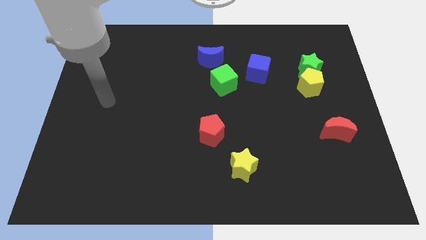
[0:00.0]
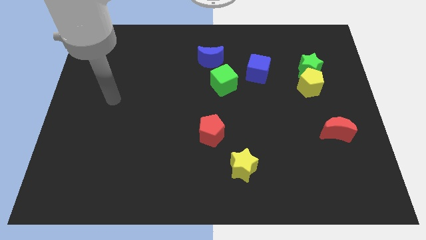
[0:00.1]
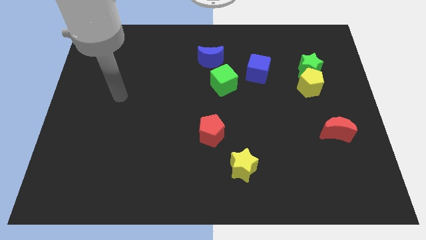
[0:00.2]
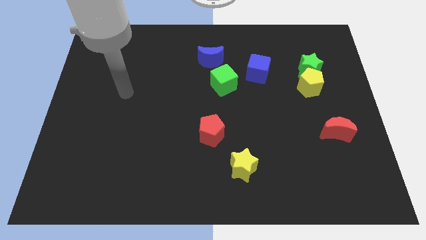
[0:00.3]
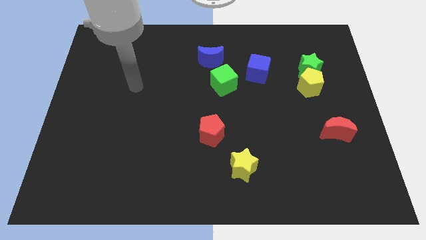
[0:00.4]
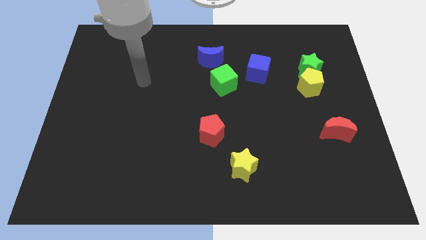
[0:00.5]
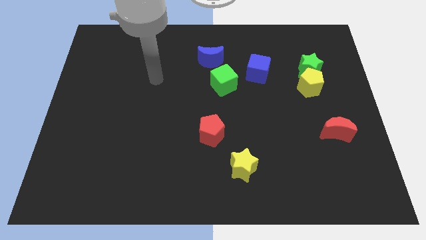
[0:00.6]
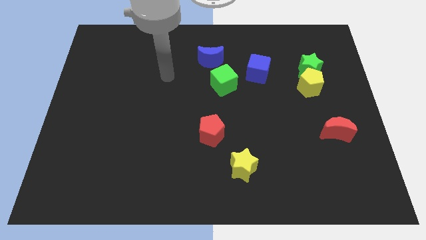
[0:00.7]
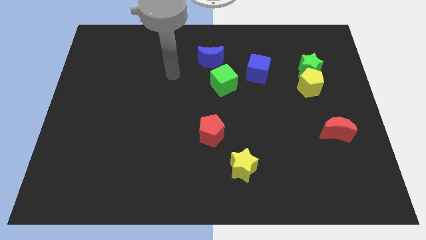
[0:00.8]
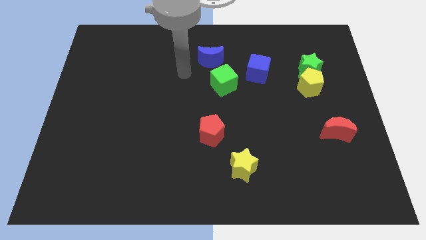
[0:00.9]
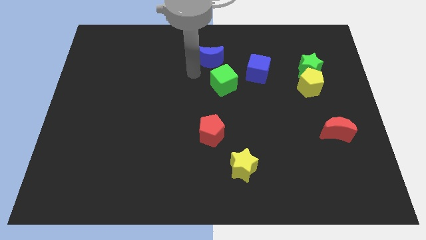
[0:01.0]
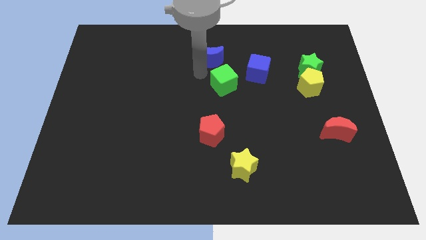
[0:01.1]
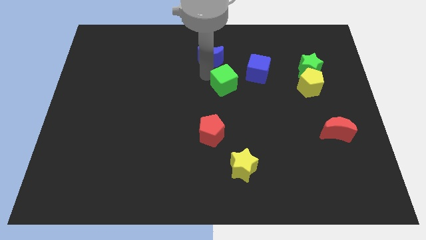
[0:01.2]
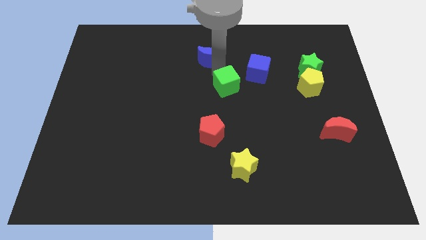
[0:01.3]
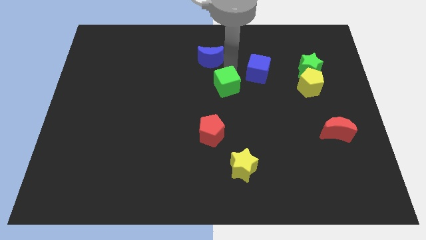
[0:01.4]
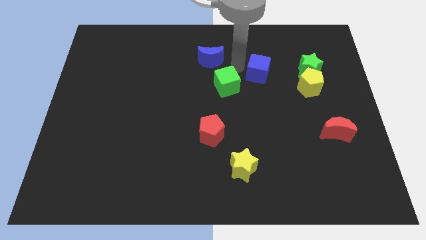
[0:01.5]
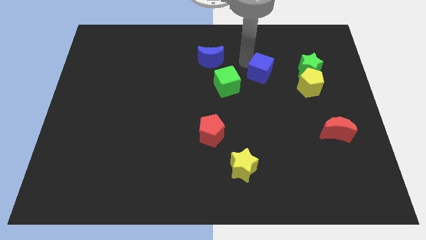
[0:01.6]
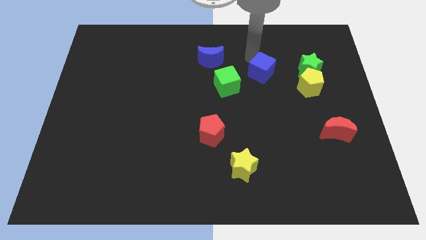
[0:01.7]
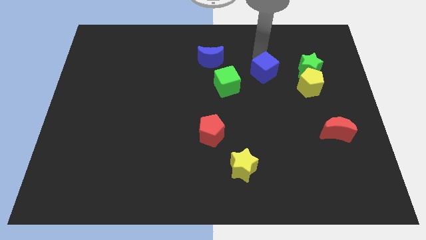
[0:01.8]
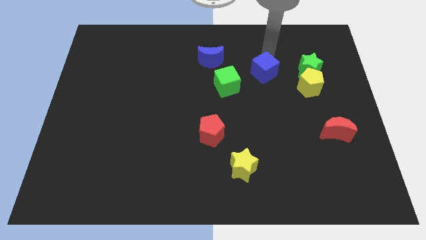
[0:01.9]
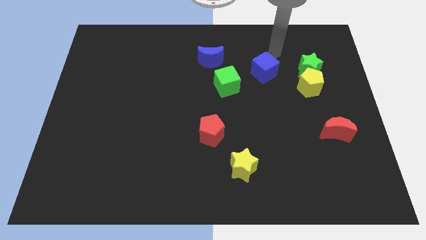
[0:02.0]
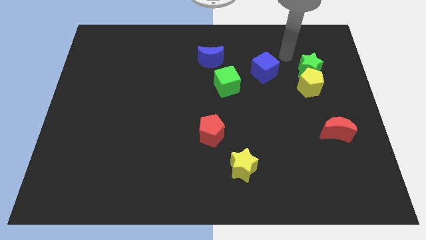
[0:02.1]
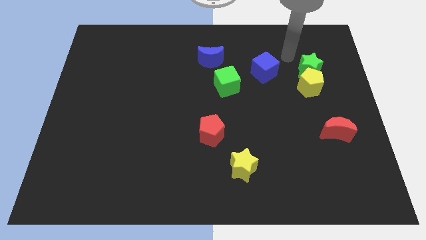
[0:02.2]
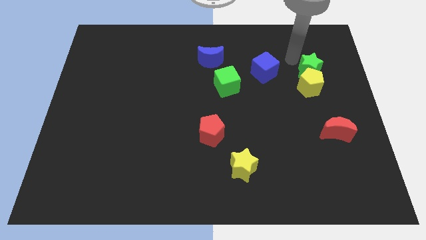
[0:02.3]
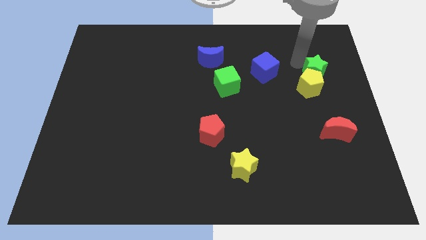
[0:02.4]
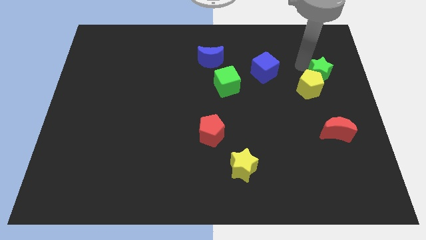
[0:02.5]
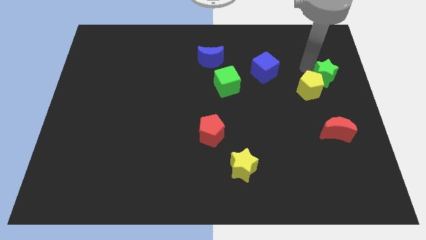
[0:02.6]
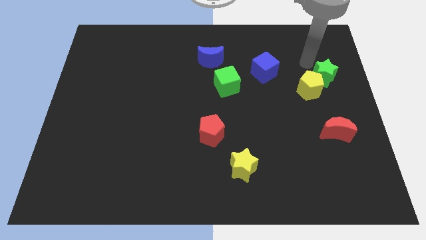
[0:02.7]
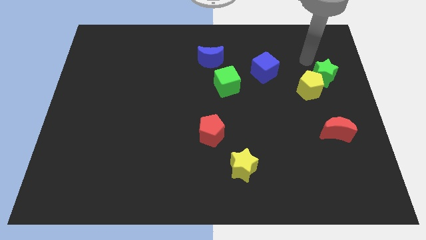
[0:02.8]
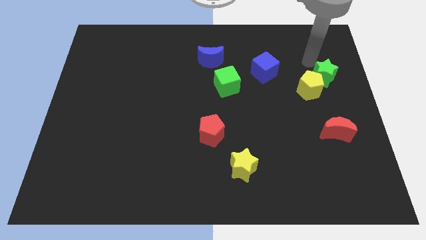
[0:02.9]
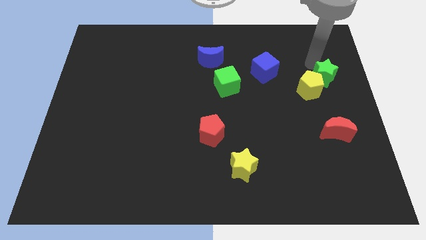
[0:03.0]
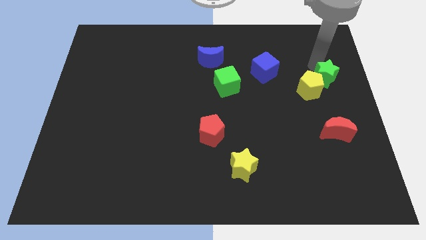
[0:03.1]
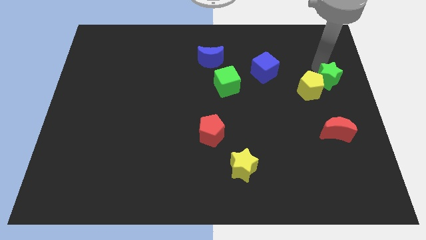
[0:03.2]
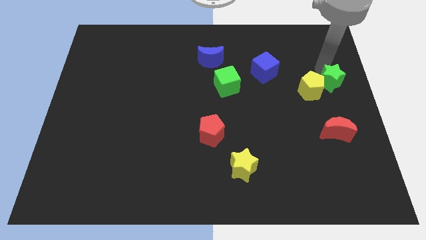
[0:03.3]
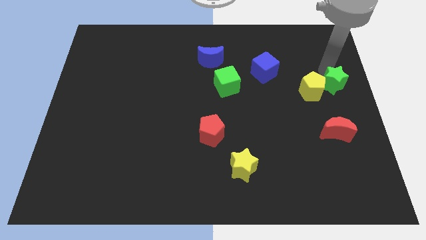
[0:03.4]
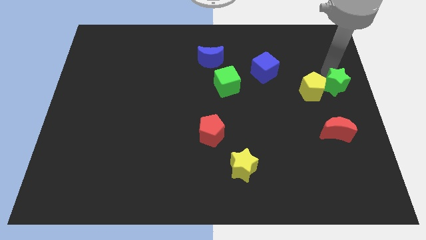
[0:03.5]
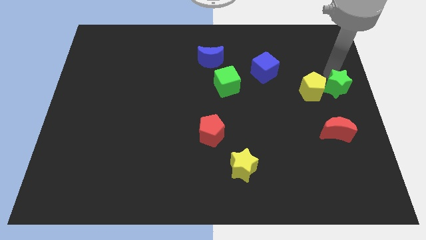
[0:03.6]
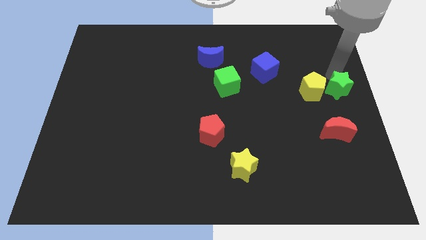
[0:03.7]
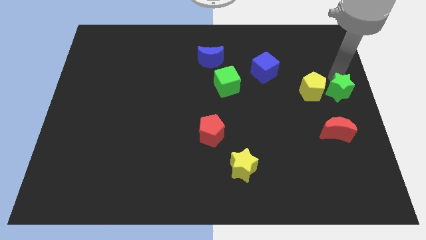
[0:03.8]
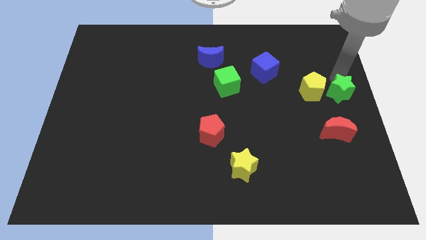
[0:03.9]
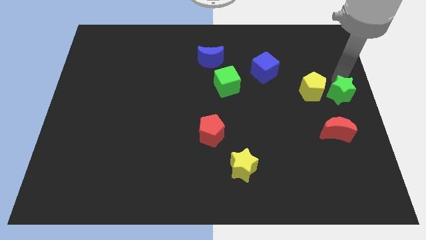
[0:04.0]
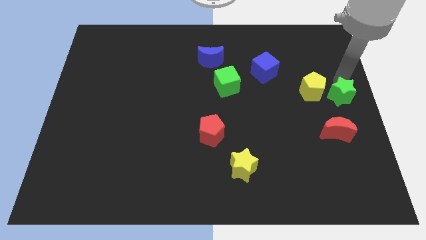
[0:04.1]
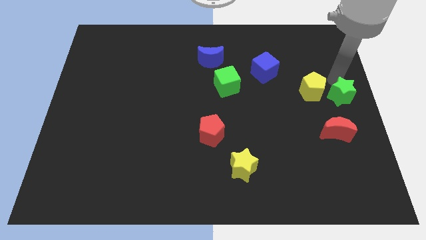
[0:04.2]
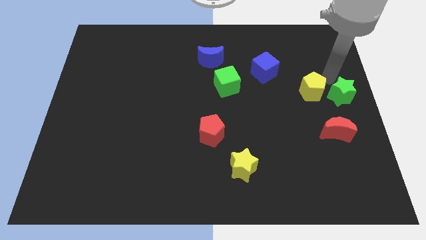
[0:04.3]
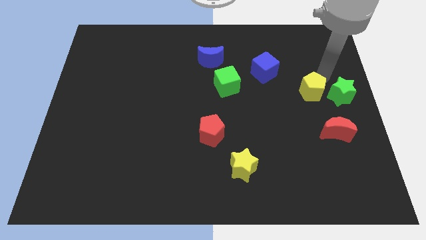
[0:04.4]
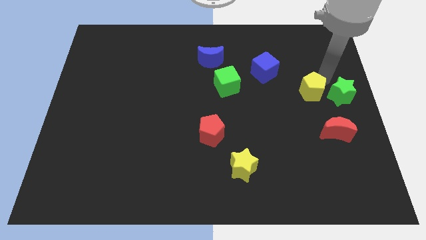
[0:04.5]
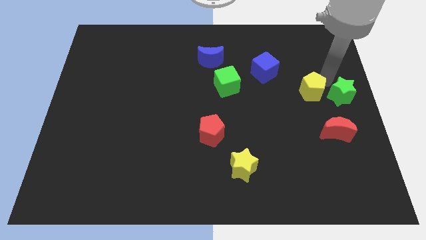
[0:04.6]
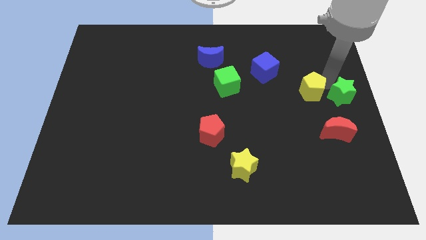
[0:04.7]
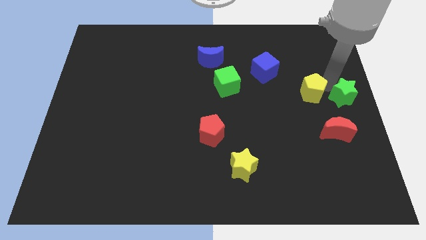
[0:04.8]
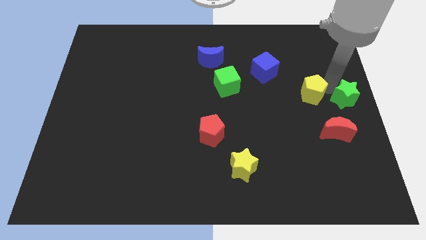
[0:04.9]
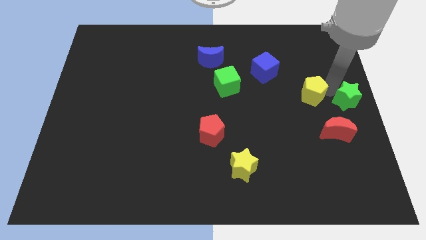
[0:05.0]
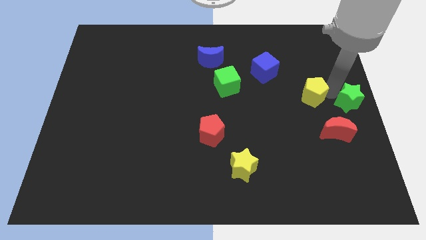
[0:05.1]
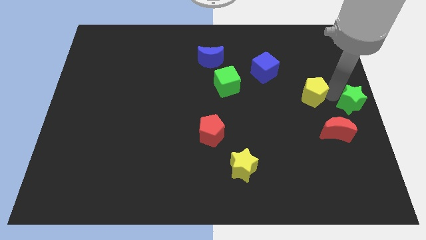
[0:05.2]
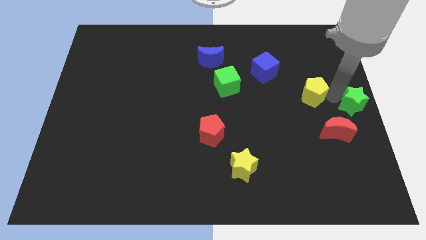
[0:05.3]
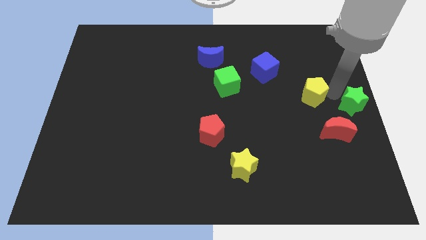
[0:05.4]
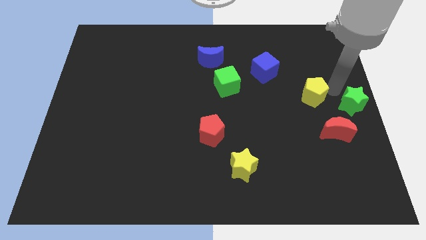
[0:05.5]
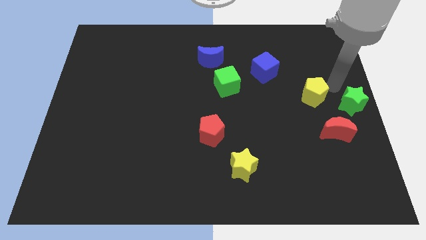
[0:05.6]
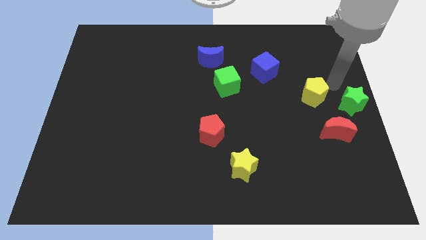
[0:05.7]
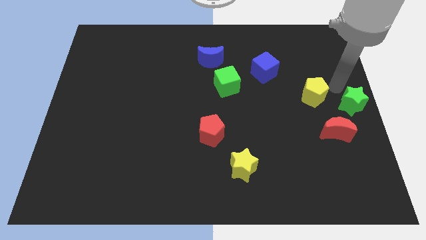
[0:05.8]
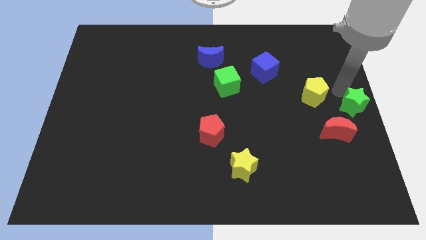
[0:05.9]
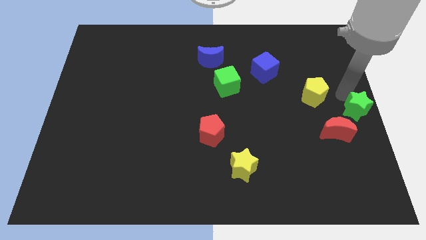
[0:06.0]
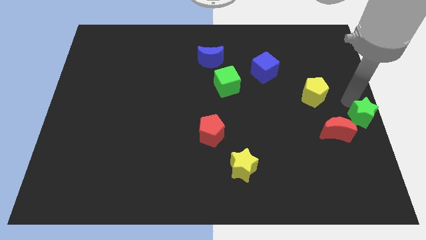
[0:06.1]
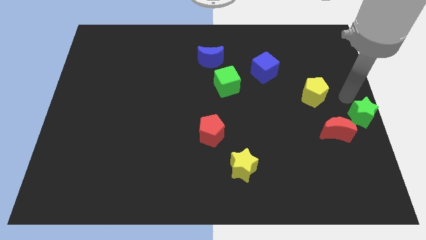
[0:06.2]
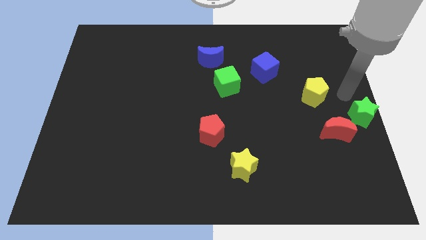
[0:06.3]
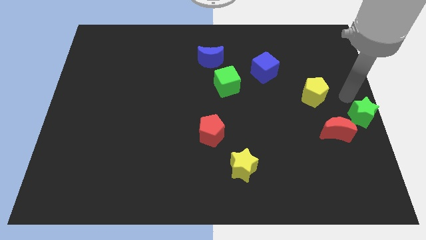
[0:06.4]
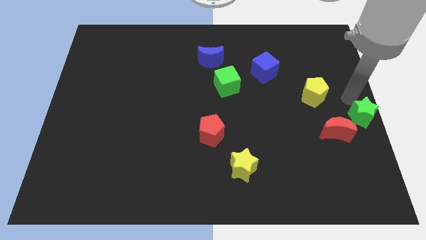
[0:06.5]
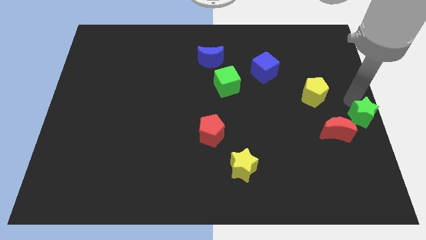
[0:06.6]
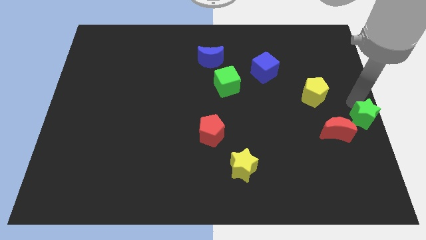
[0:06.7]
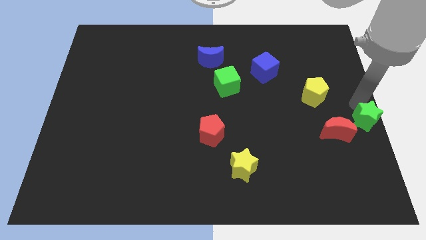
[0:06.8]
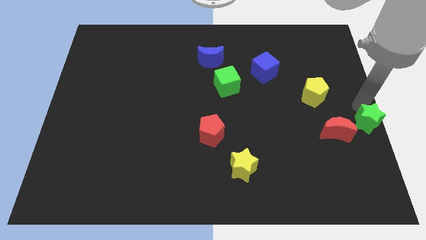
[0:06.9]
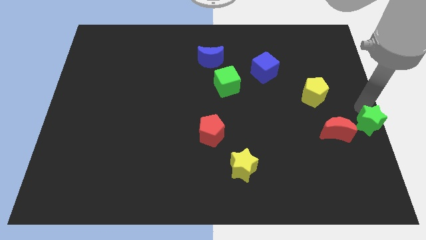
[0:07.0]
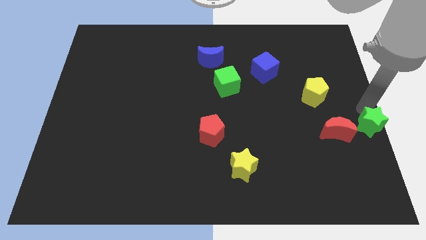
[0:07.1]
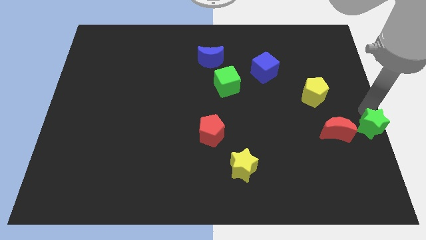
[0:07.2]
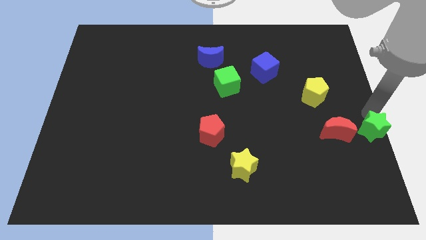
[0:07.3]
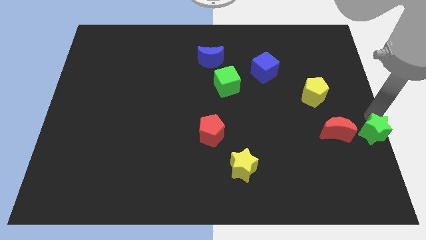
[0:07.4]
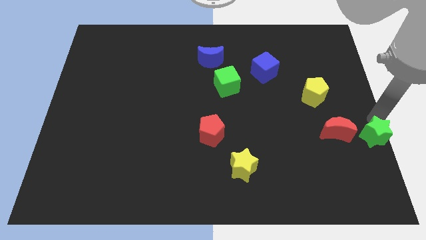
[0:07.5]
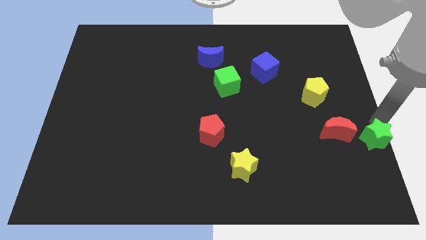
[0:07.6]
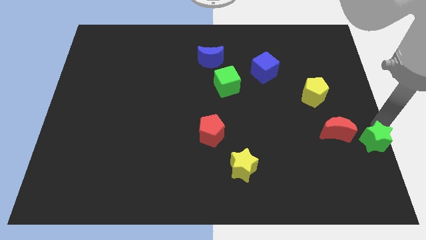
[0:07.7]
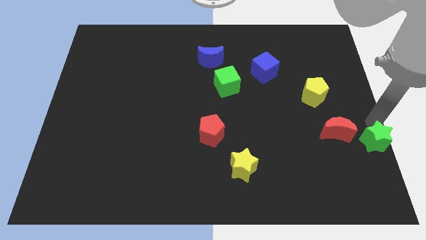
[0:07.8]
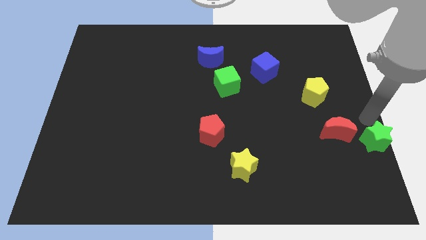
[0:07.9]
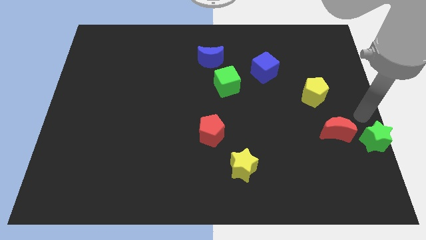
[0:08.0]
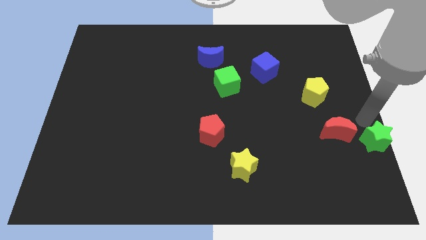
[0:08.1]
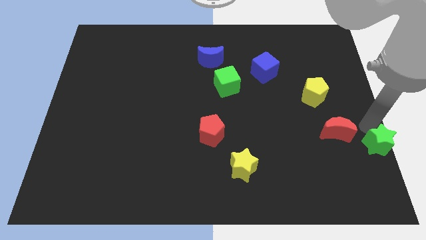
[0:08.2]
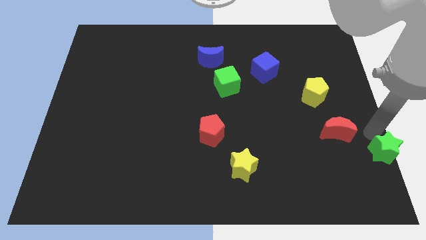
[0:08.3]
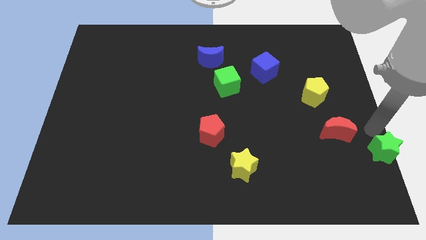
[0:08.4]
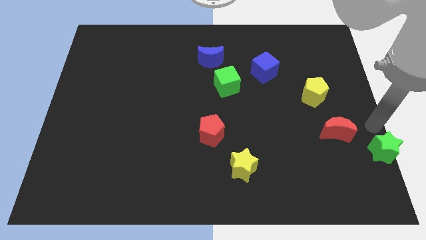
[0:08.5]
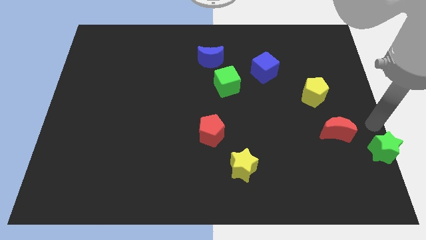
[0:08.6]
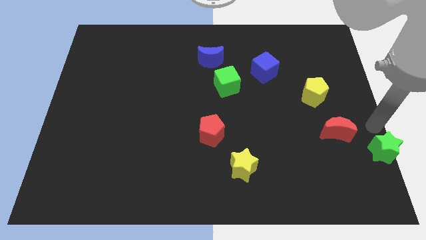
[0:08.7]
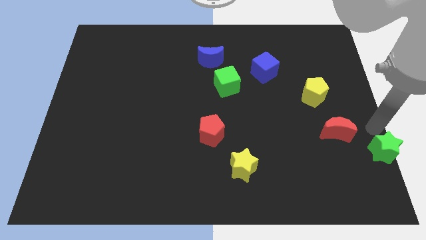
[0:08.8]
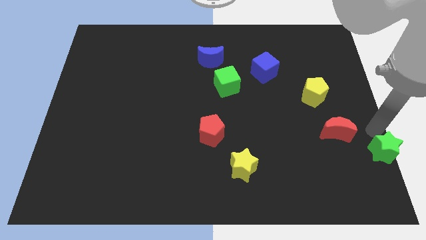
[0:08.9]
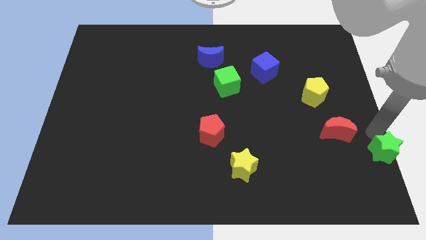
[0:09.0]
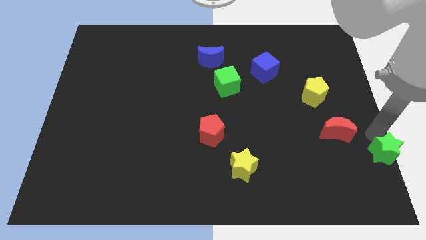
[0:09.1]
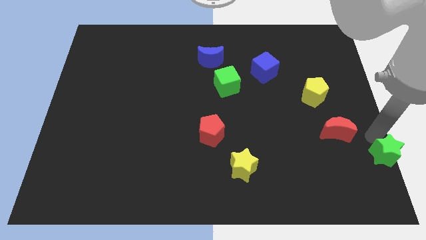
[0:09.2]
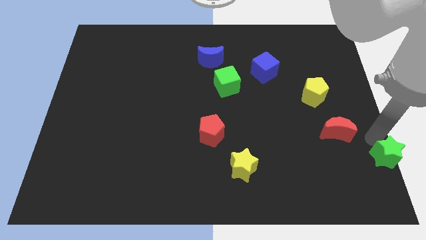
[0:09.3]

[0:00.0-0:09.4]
push the green star to the bottom right
